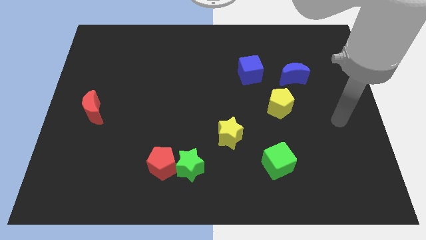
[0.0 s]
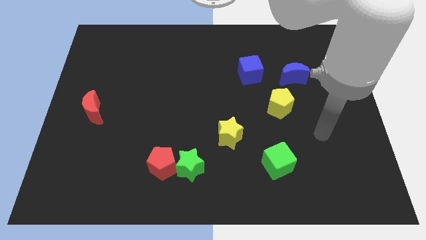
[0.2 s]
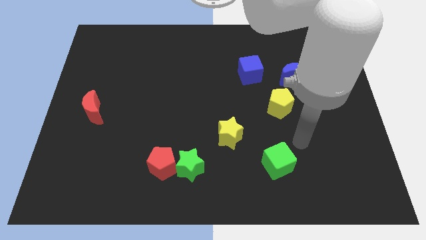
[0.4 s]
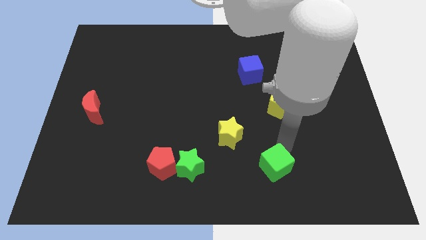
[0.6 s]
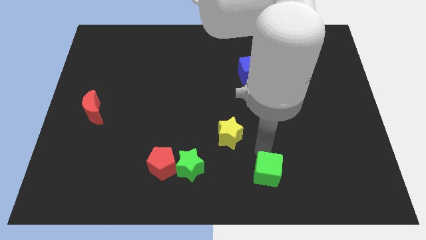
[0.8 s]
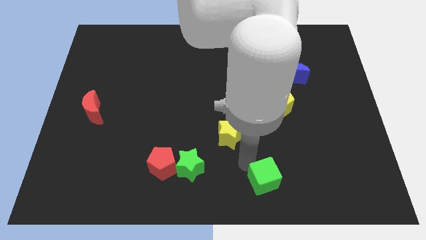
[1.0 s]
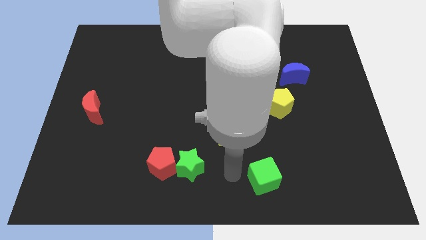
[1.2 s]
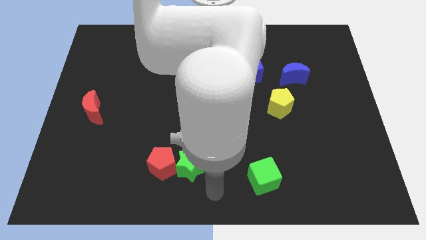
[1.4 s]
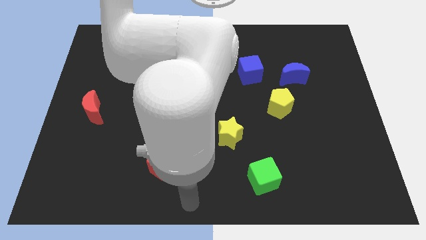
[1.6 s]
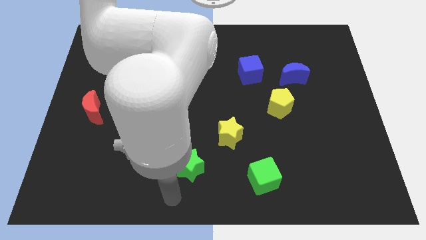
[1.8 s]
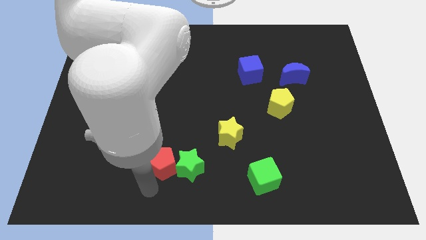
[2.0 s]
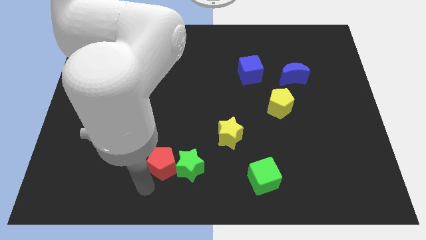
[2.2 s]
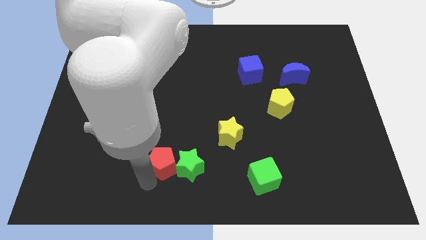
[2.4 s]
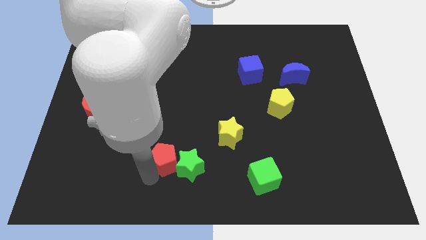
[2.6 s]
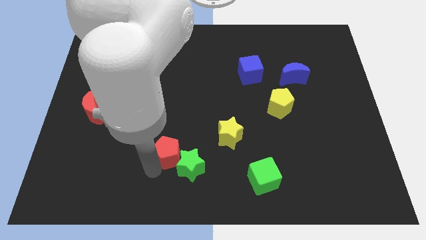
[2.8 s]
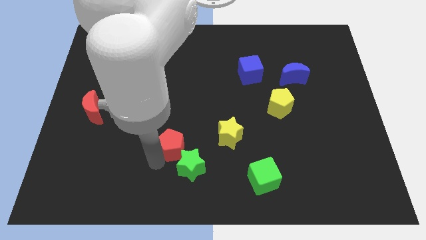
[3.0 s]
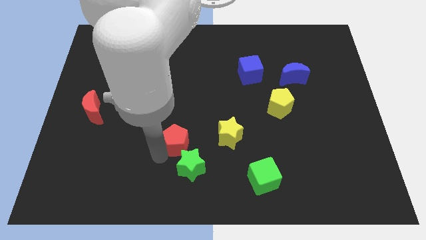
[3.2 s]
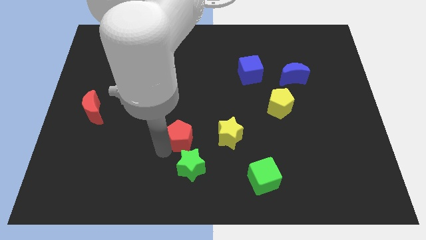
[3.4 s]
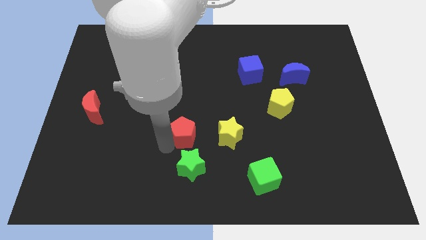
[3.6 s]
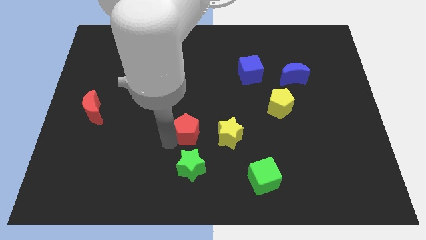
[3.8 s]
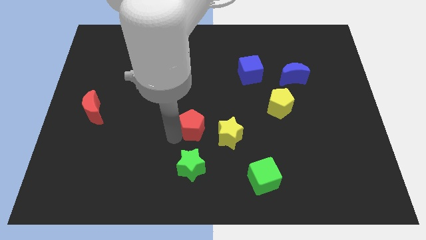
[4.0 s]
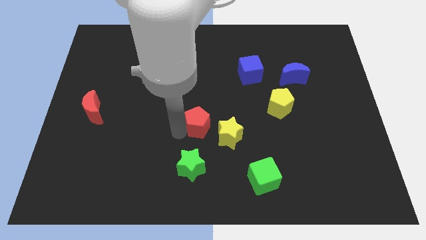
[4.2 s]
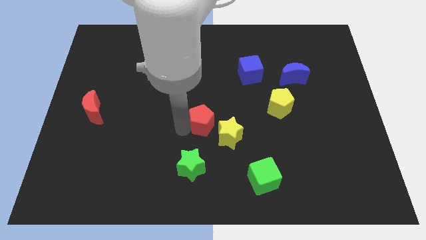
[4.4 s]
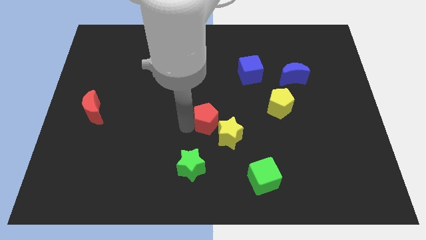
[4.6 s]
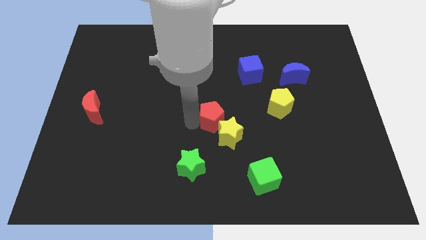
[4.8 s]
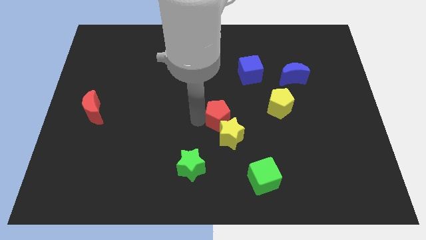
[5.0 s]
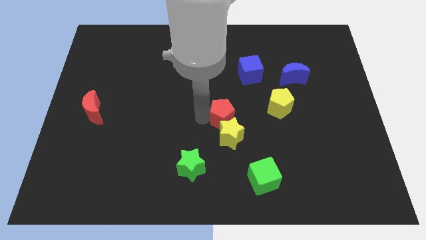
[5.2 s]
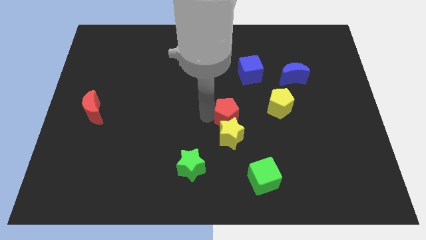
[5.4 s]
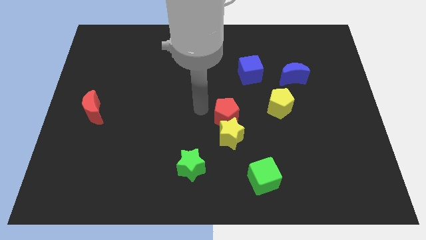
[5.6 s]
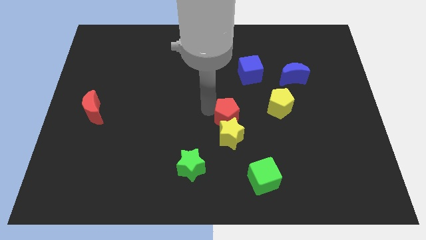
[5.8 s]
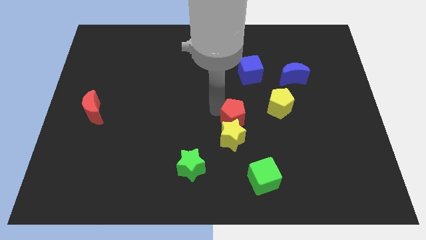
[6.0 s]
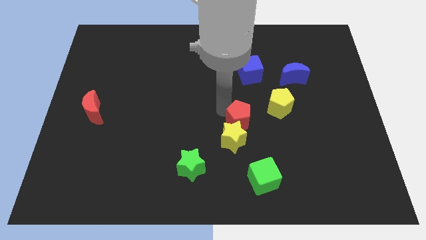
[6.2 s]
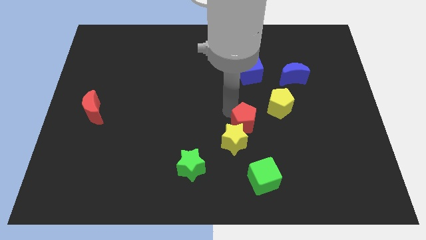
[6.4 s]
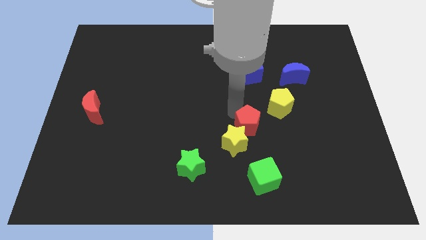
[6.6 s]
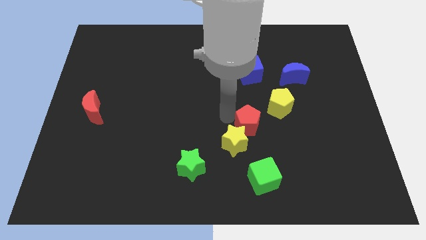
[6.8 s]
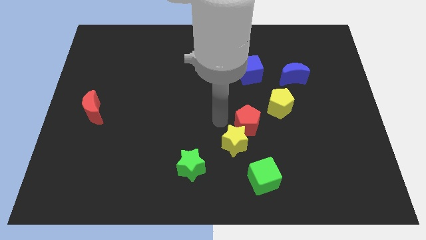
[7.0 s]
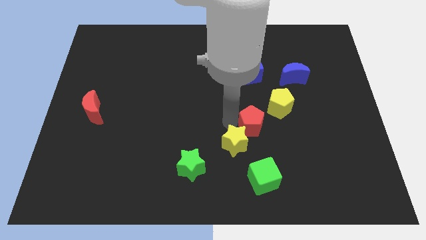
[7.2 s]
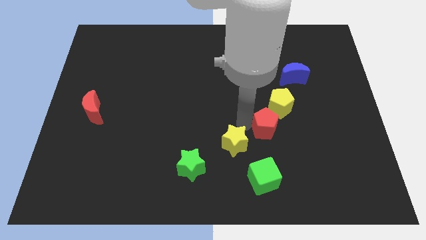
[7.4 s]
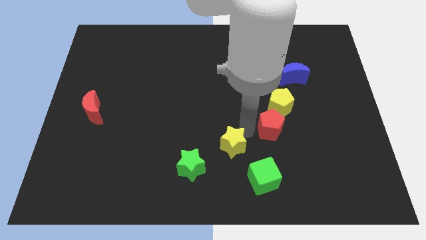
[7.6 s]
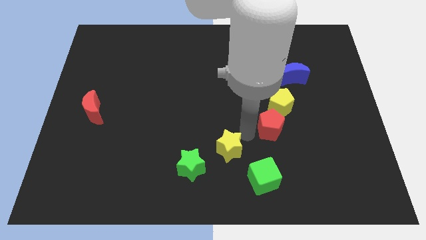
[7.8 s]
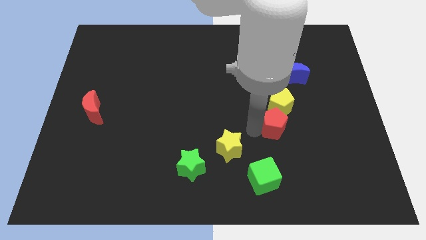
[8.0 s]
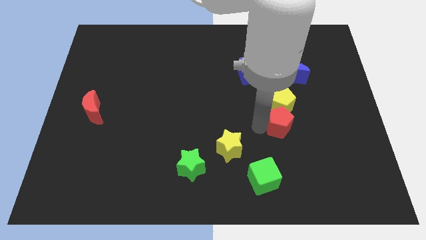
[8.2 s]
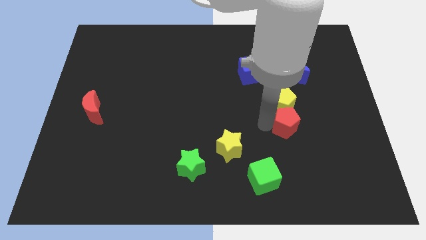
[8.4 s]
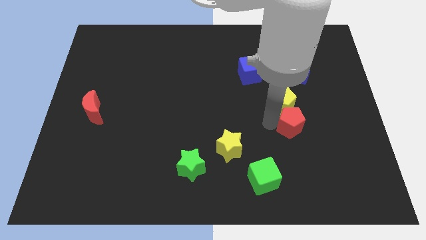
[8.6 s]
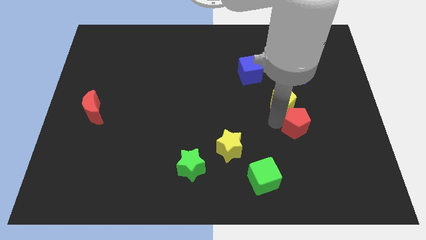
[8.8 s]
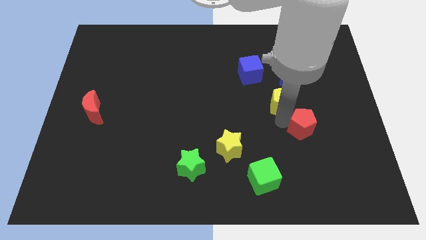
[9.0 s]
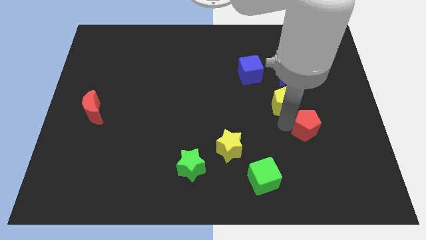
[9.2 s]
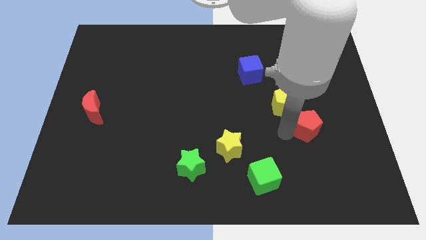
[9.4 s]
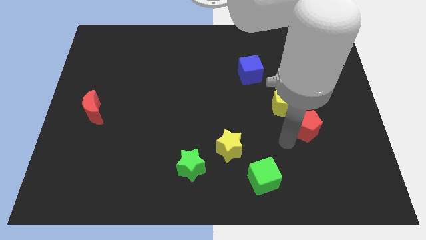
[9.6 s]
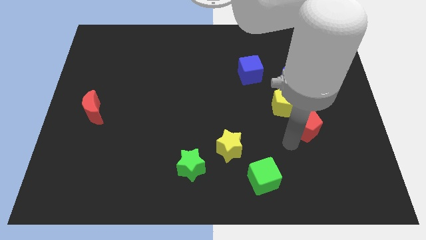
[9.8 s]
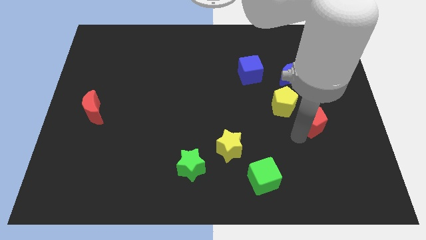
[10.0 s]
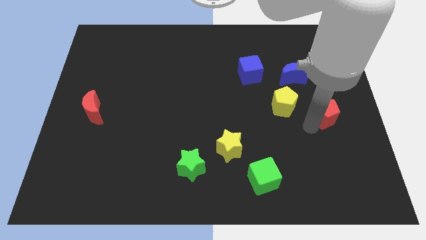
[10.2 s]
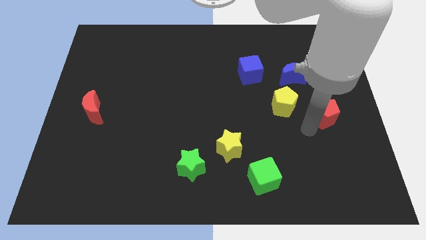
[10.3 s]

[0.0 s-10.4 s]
slide the red pentagon to the right side of the board

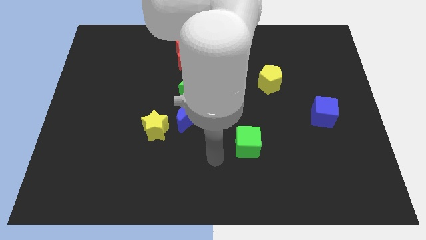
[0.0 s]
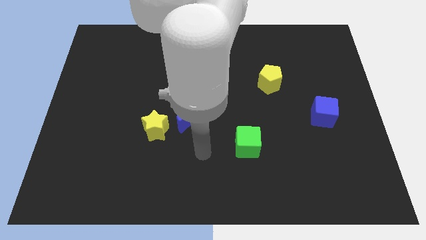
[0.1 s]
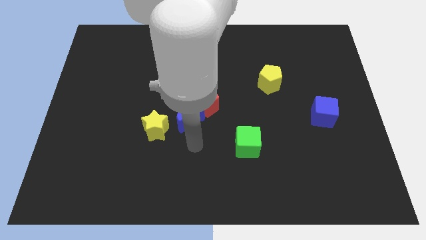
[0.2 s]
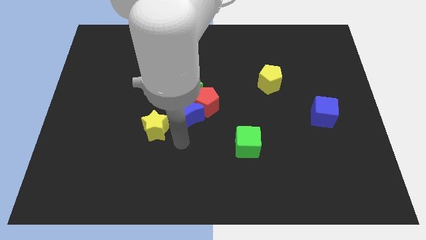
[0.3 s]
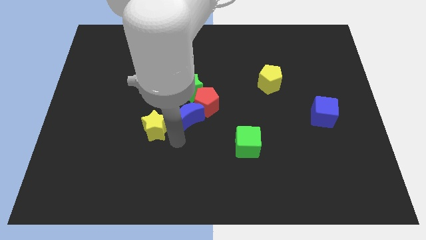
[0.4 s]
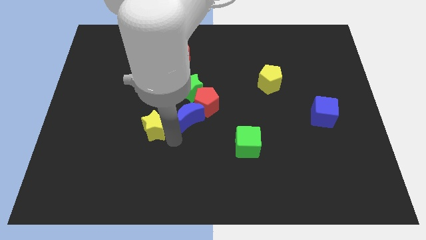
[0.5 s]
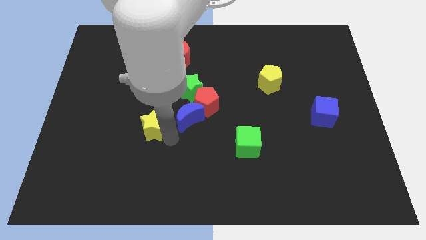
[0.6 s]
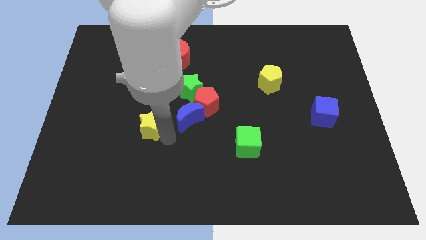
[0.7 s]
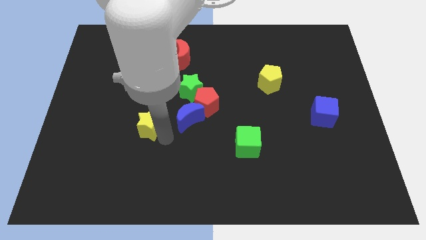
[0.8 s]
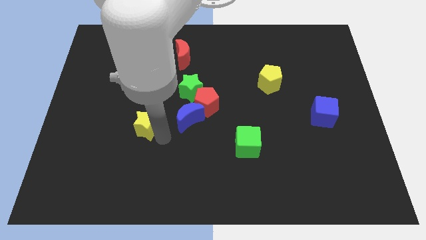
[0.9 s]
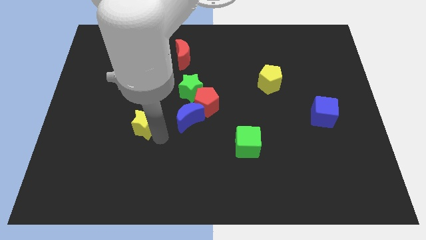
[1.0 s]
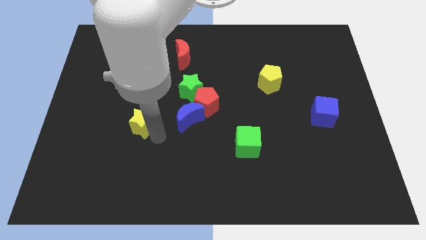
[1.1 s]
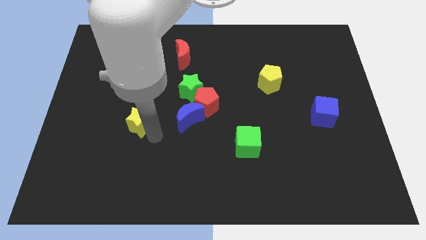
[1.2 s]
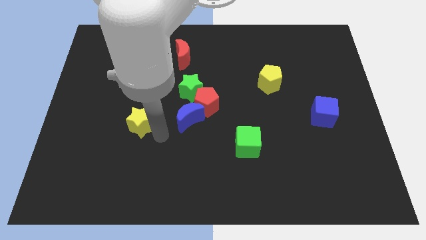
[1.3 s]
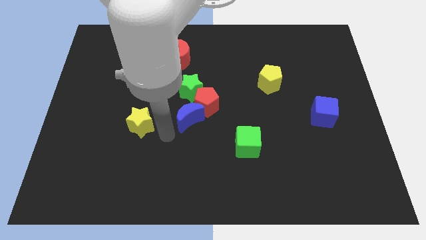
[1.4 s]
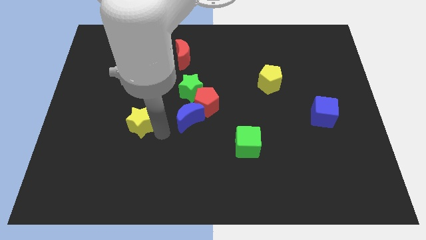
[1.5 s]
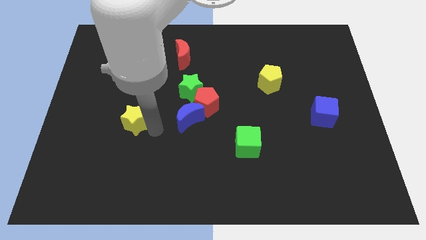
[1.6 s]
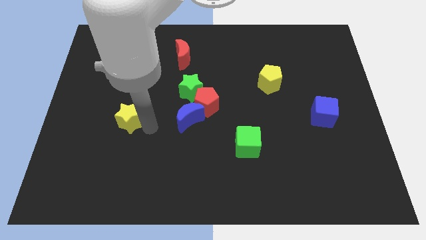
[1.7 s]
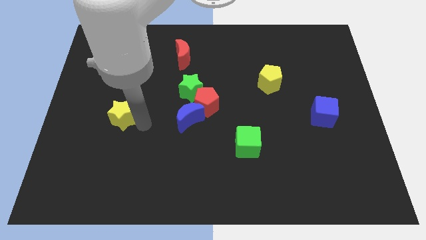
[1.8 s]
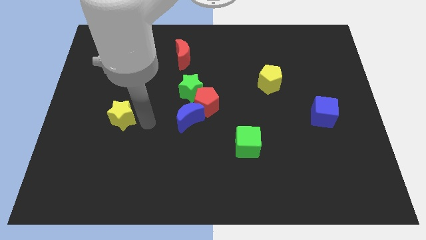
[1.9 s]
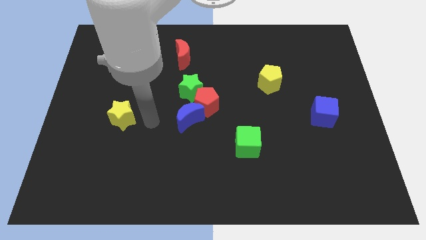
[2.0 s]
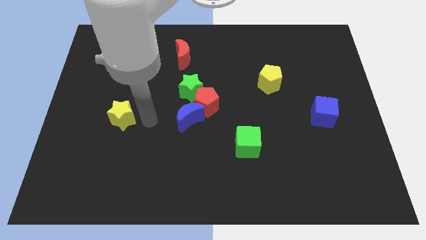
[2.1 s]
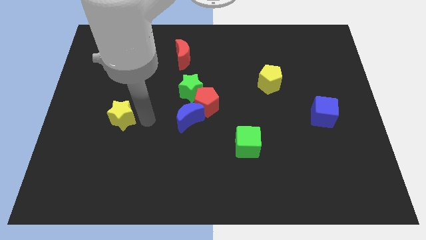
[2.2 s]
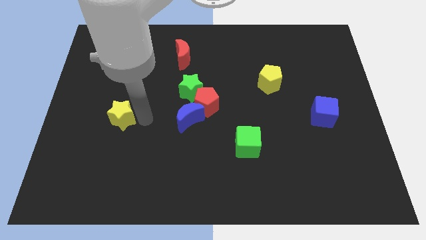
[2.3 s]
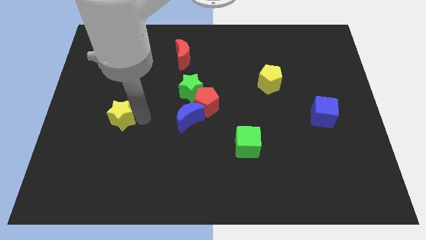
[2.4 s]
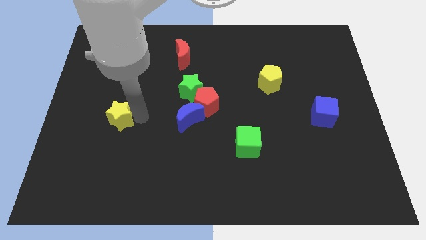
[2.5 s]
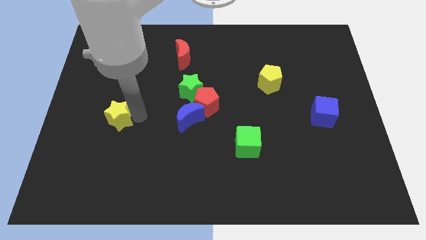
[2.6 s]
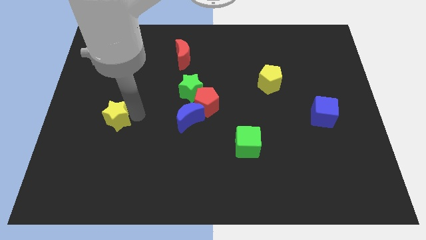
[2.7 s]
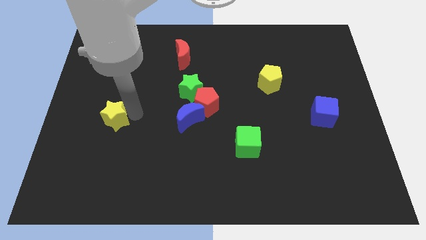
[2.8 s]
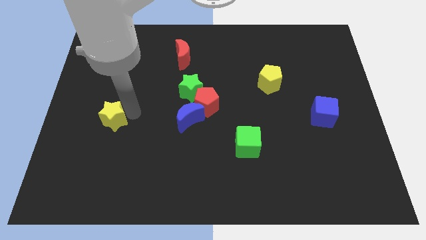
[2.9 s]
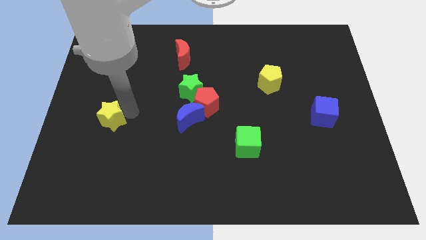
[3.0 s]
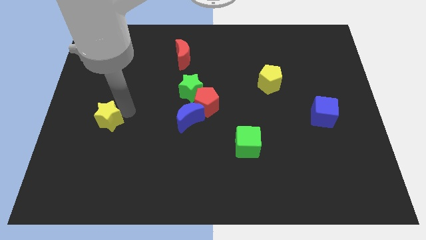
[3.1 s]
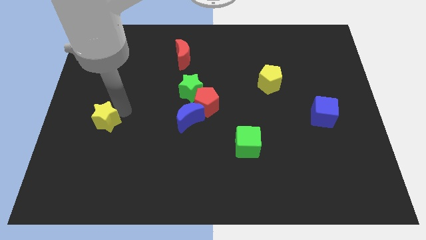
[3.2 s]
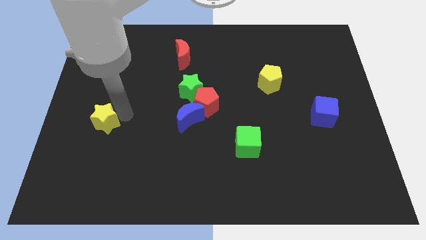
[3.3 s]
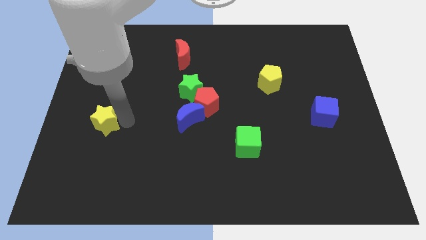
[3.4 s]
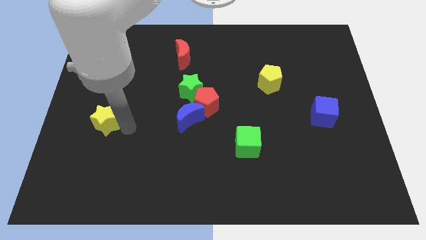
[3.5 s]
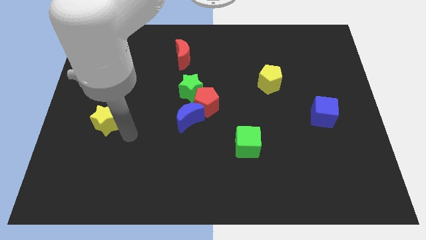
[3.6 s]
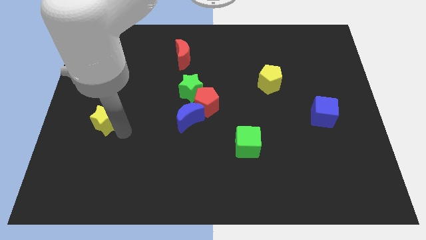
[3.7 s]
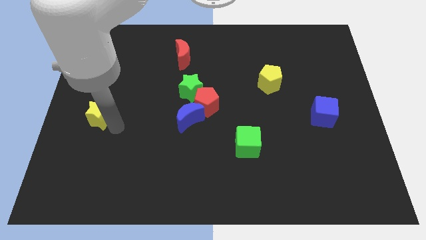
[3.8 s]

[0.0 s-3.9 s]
move the yellow star to the left side of the board
